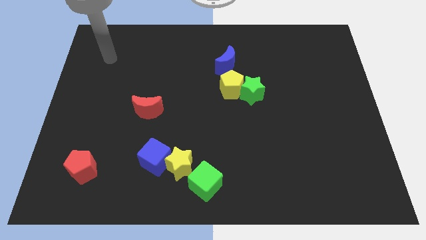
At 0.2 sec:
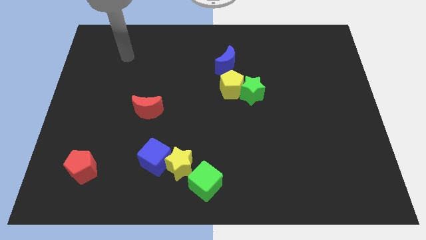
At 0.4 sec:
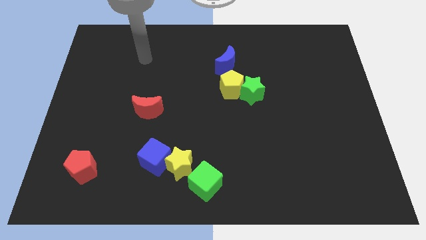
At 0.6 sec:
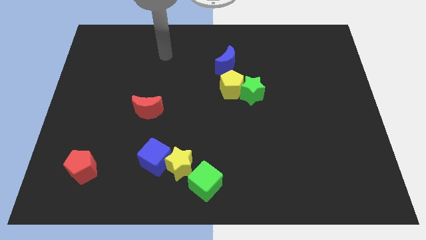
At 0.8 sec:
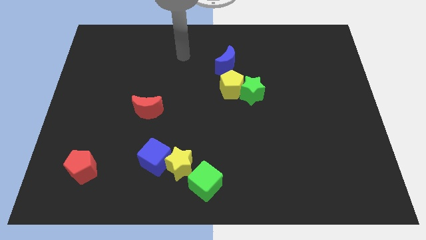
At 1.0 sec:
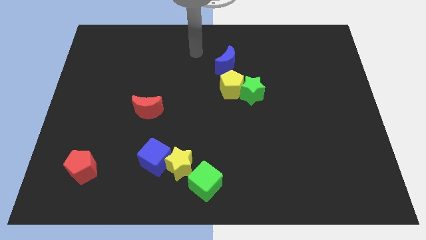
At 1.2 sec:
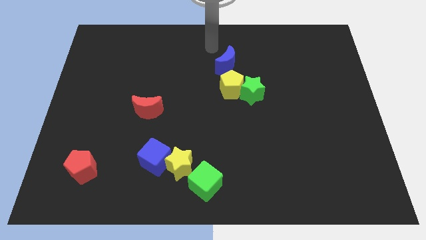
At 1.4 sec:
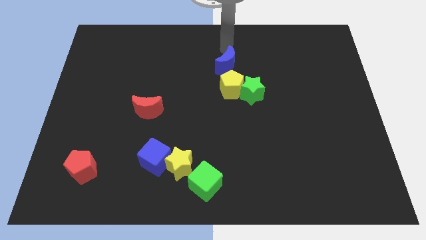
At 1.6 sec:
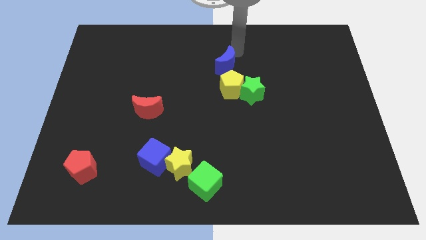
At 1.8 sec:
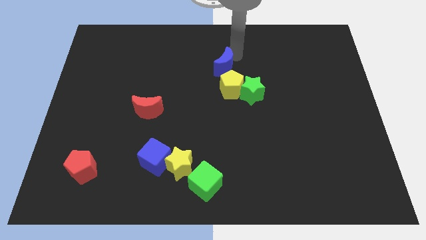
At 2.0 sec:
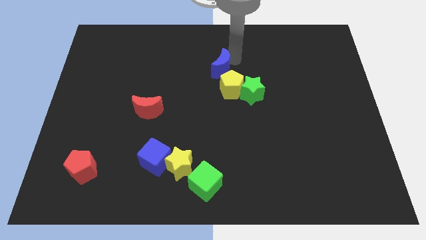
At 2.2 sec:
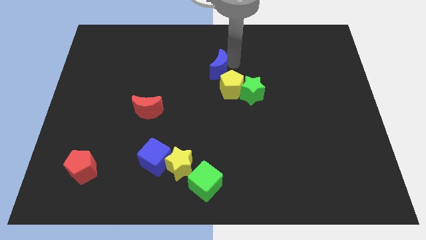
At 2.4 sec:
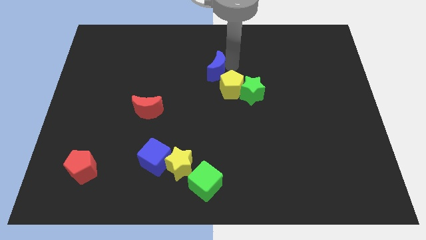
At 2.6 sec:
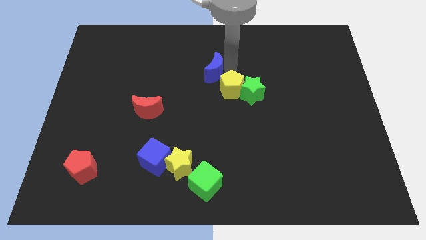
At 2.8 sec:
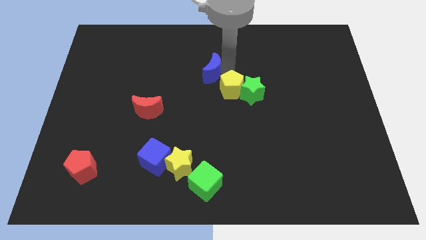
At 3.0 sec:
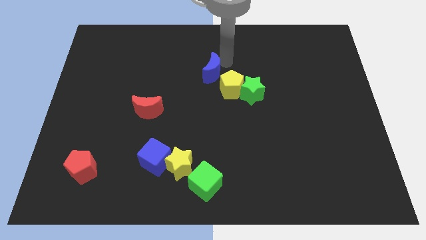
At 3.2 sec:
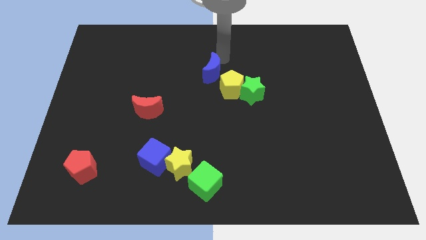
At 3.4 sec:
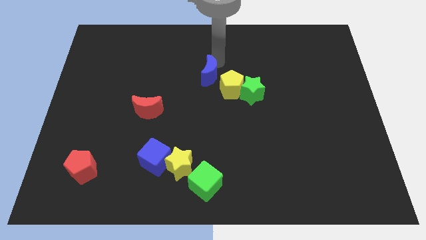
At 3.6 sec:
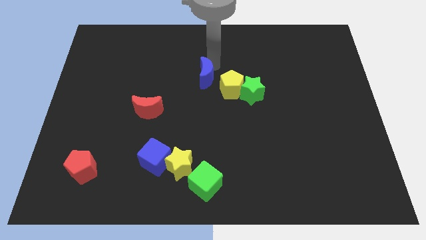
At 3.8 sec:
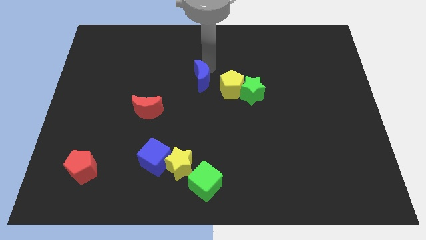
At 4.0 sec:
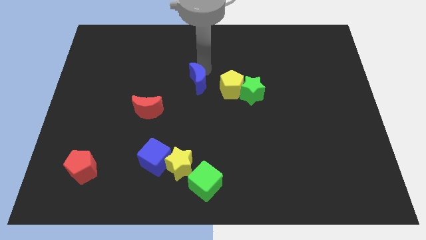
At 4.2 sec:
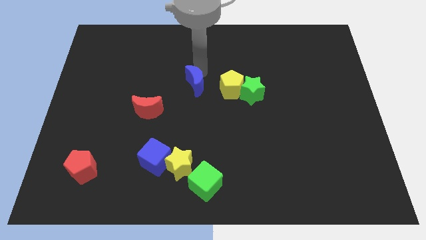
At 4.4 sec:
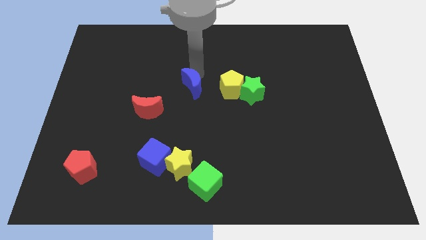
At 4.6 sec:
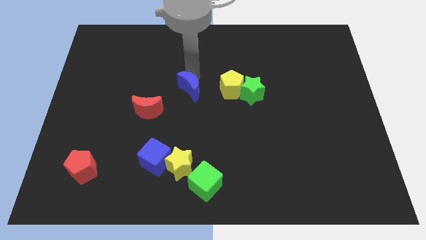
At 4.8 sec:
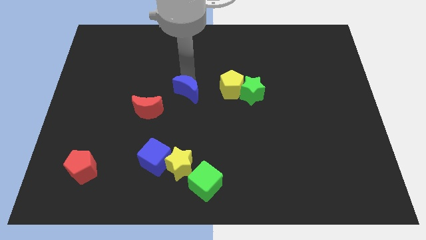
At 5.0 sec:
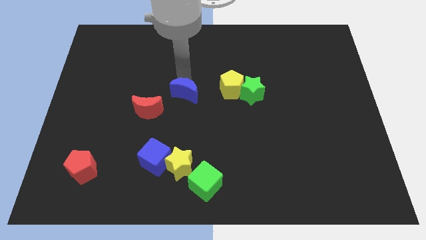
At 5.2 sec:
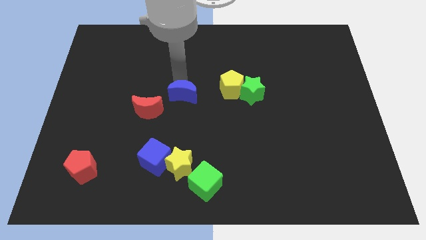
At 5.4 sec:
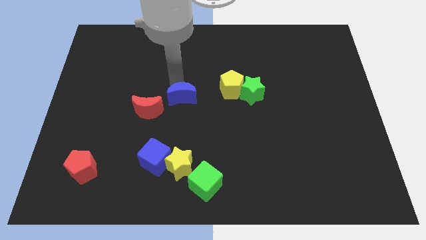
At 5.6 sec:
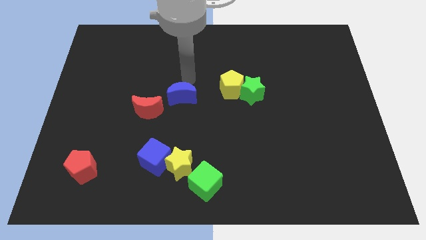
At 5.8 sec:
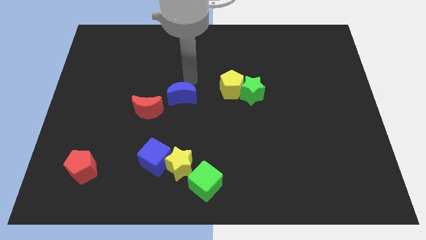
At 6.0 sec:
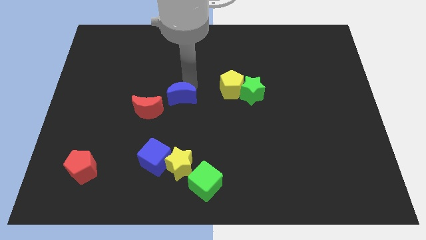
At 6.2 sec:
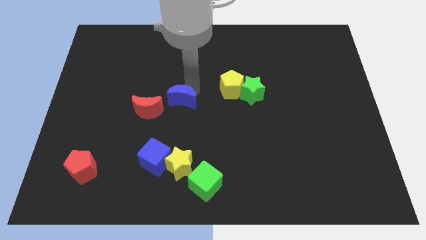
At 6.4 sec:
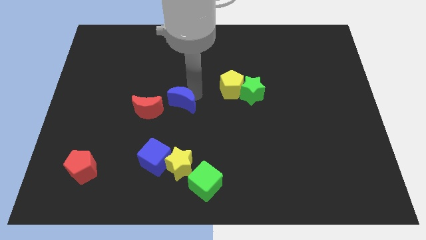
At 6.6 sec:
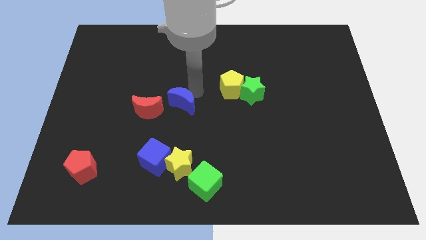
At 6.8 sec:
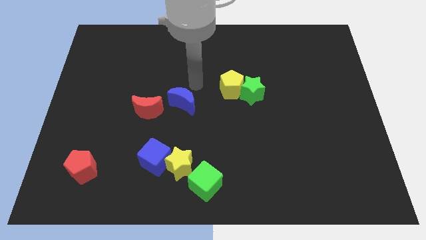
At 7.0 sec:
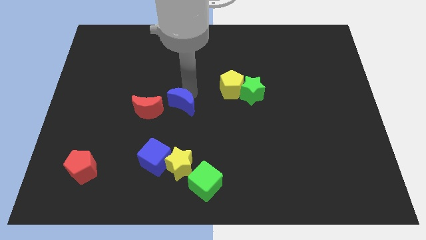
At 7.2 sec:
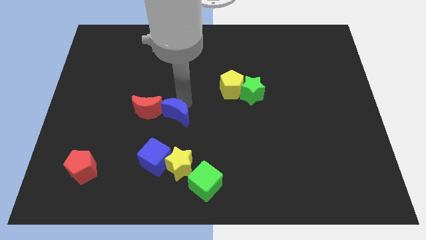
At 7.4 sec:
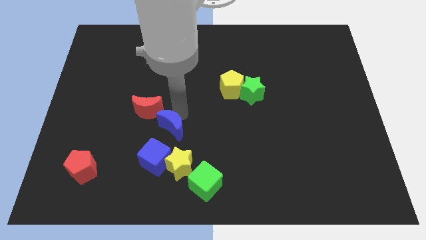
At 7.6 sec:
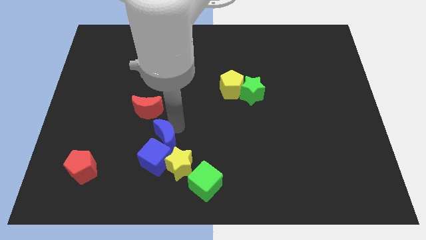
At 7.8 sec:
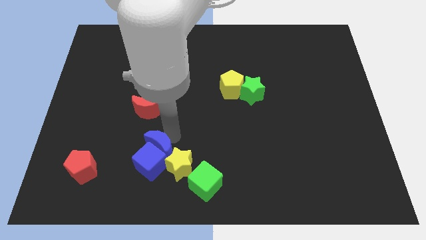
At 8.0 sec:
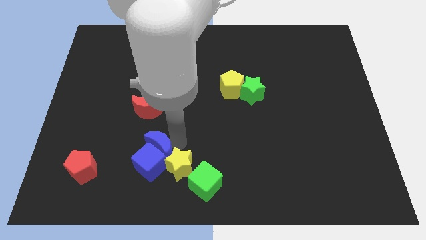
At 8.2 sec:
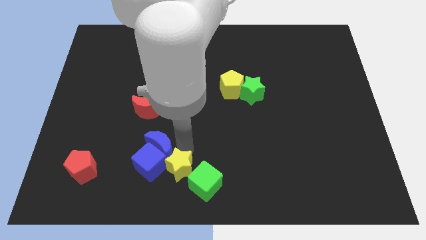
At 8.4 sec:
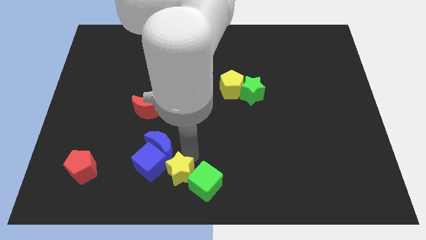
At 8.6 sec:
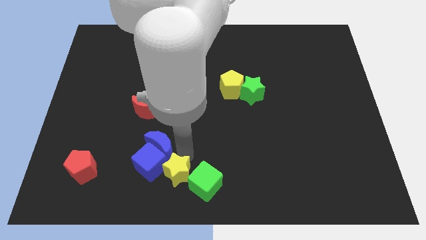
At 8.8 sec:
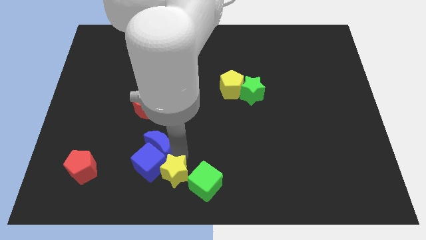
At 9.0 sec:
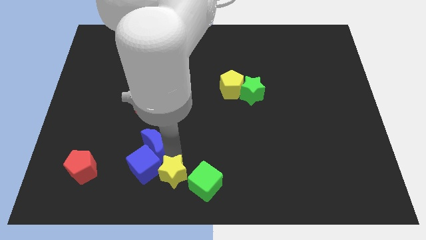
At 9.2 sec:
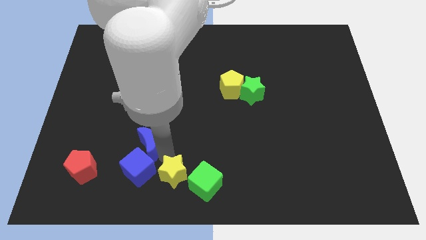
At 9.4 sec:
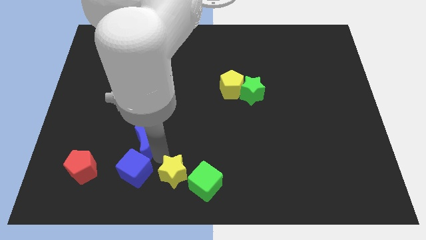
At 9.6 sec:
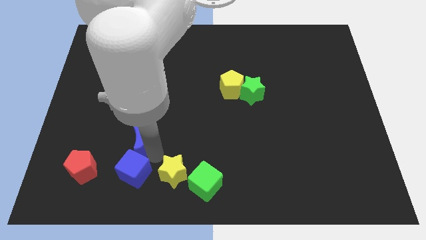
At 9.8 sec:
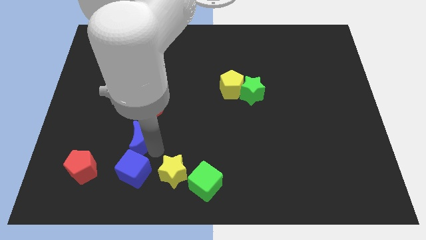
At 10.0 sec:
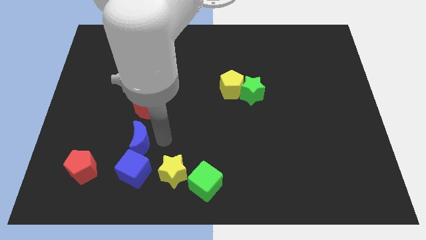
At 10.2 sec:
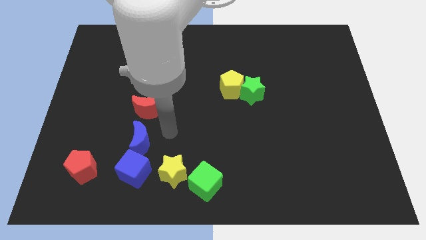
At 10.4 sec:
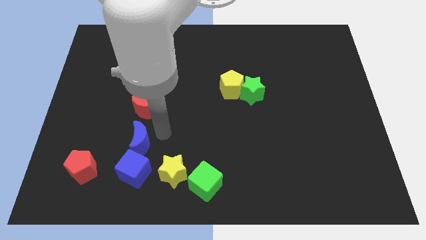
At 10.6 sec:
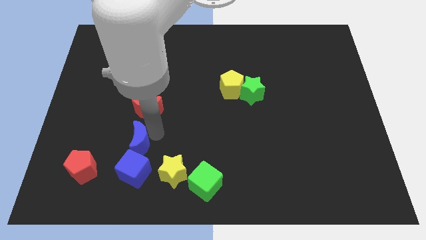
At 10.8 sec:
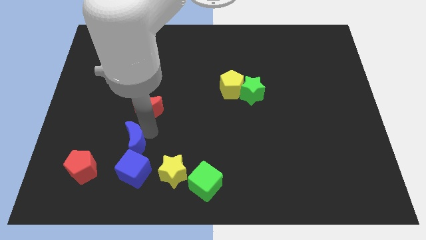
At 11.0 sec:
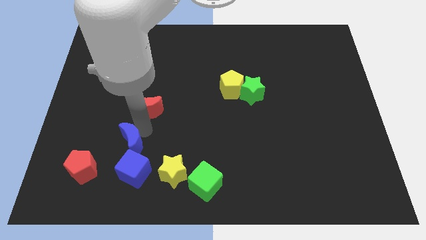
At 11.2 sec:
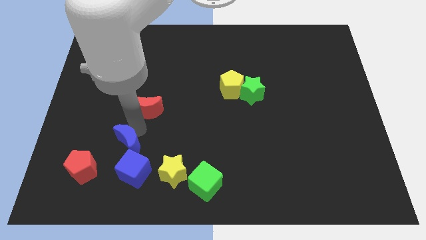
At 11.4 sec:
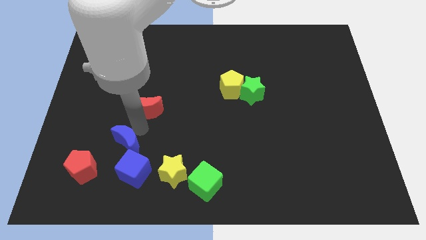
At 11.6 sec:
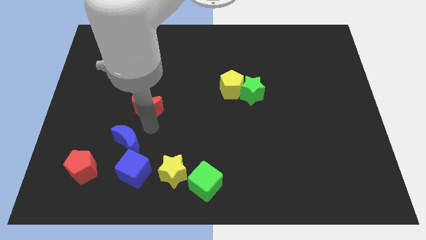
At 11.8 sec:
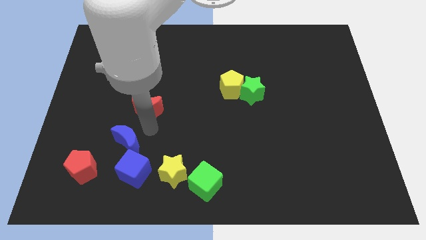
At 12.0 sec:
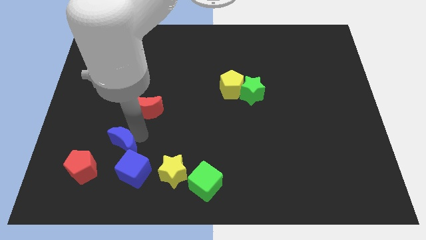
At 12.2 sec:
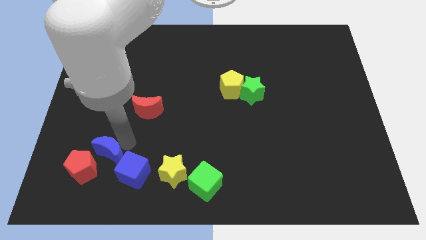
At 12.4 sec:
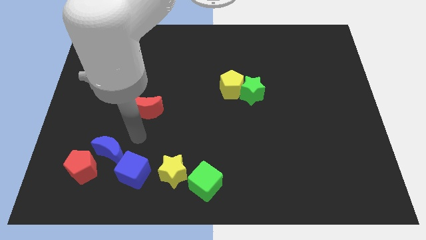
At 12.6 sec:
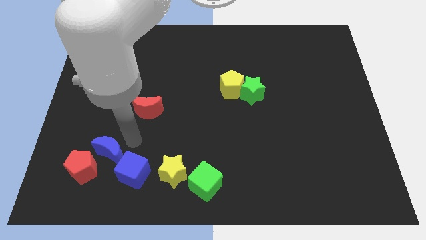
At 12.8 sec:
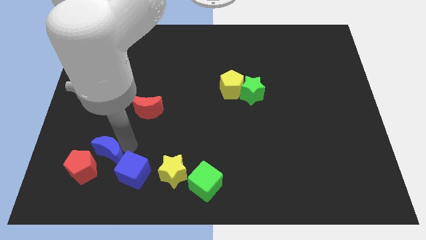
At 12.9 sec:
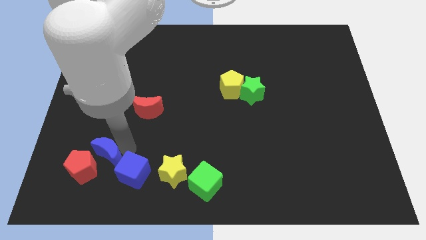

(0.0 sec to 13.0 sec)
push the blue moon to the red pentagon
